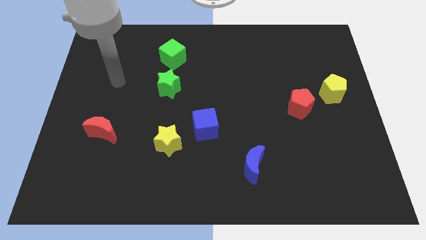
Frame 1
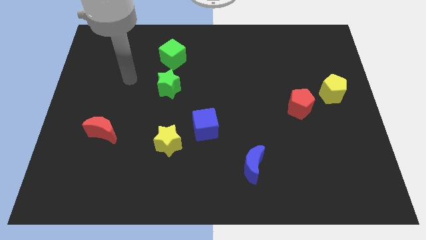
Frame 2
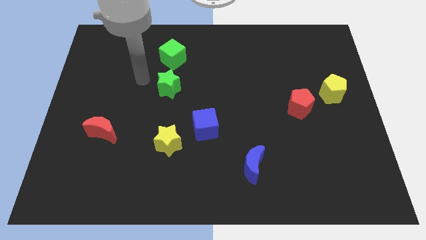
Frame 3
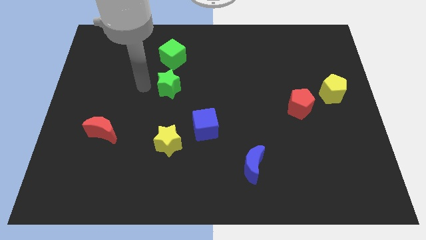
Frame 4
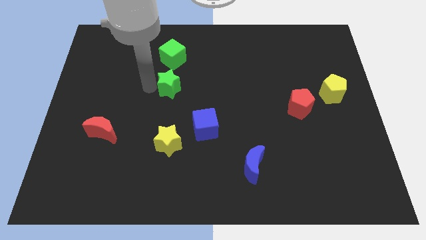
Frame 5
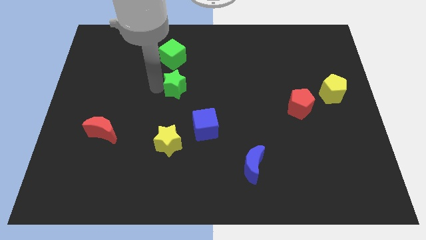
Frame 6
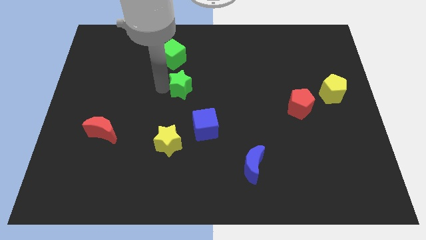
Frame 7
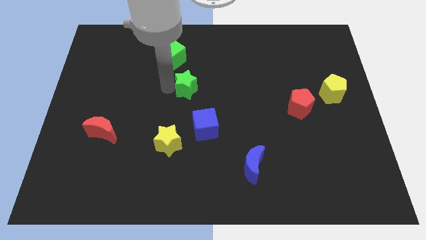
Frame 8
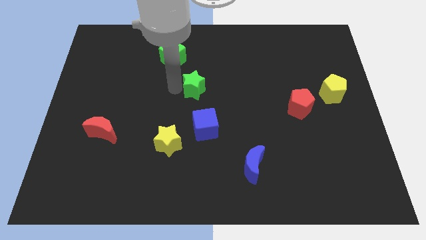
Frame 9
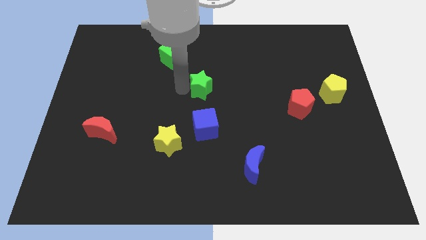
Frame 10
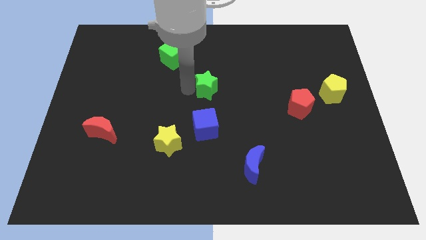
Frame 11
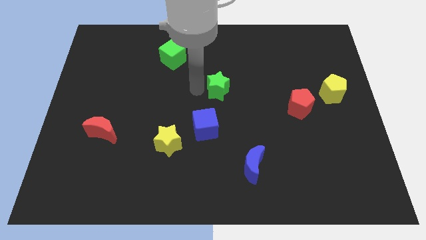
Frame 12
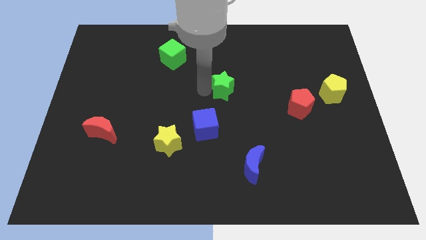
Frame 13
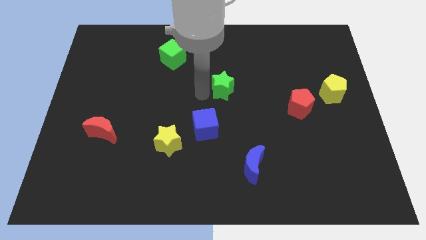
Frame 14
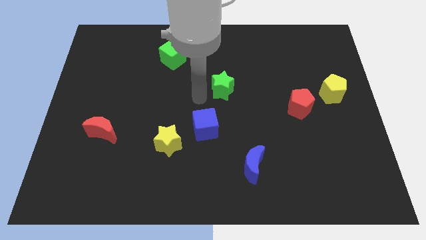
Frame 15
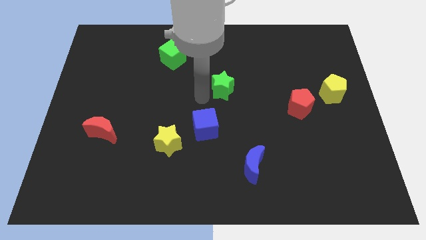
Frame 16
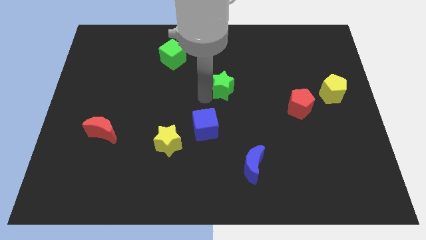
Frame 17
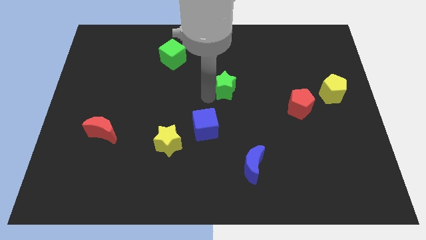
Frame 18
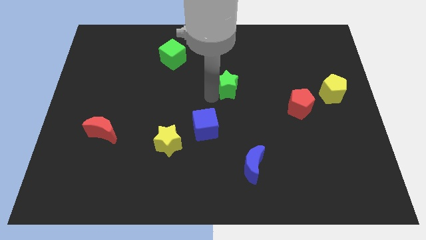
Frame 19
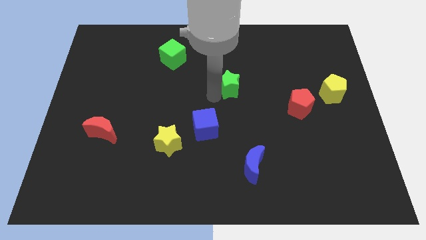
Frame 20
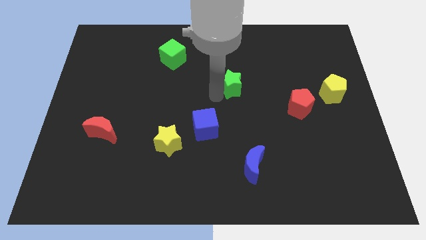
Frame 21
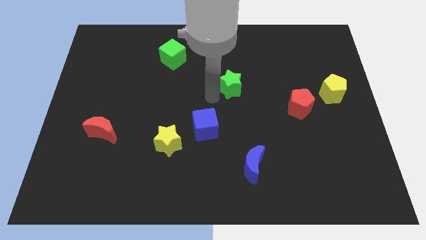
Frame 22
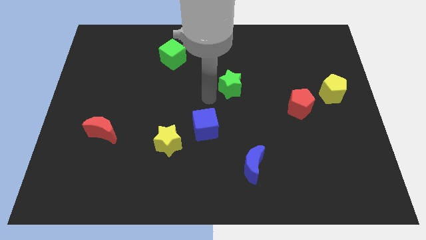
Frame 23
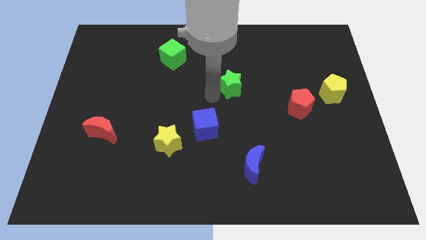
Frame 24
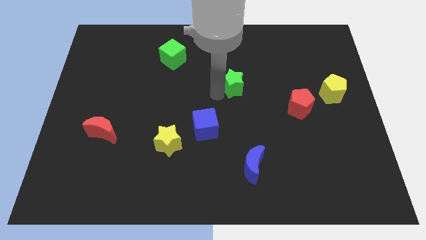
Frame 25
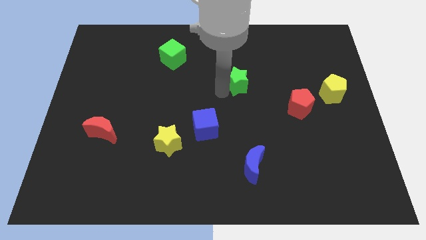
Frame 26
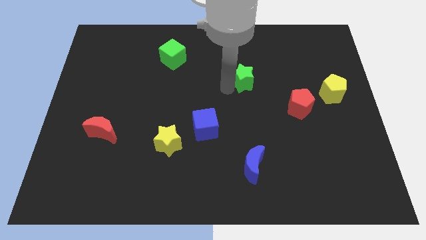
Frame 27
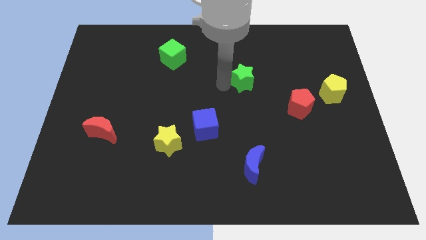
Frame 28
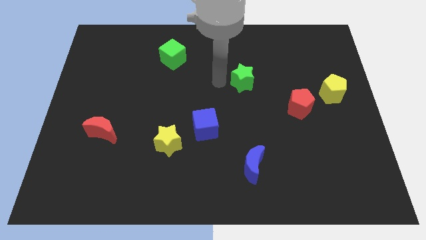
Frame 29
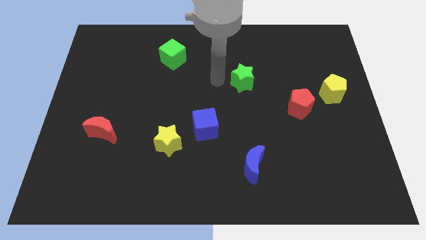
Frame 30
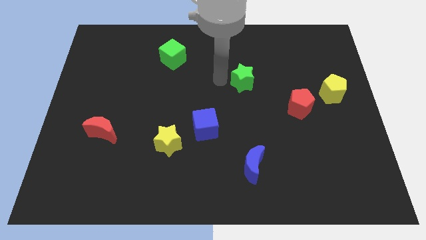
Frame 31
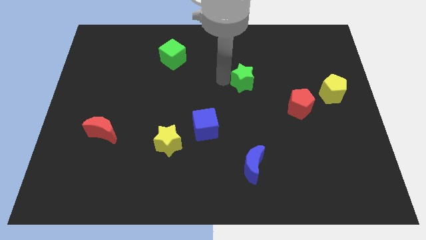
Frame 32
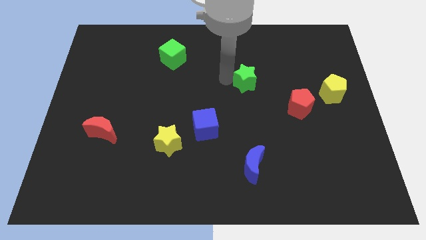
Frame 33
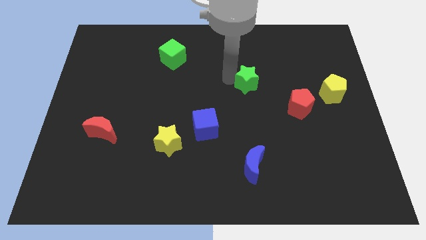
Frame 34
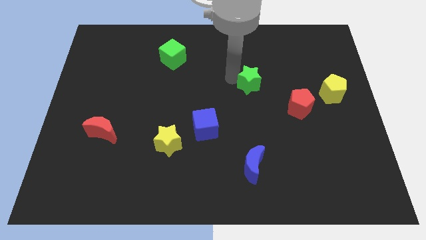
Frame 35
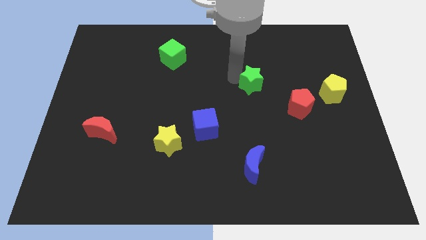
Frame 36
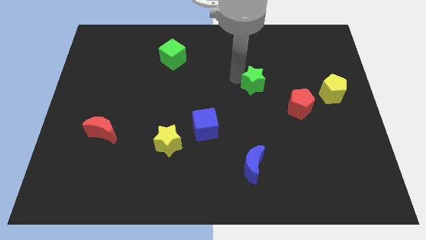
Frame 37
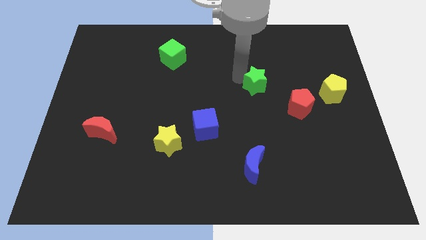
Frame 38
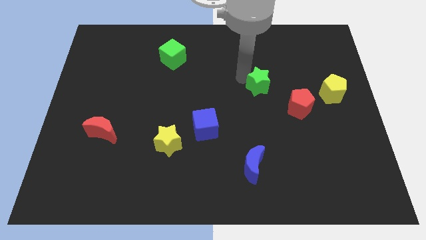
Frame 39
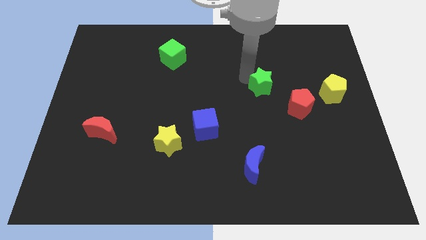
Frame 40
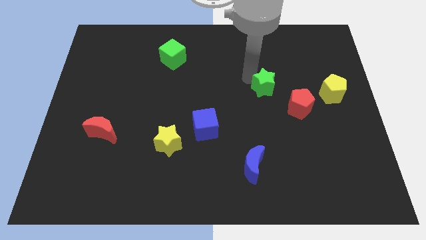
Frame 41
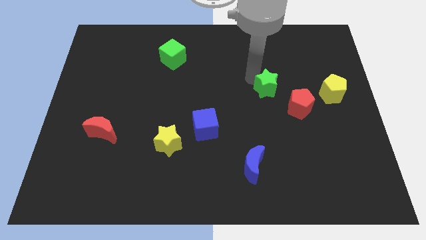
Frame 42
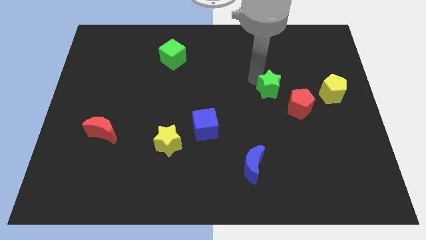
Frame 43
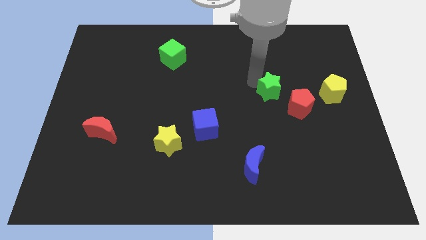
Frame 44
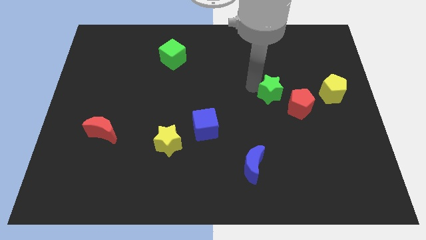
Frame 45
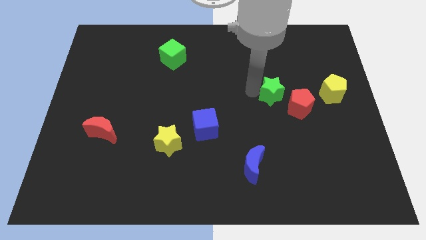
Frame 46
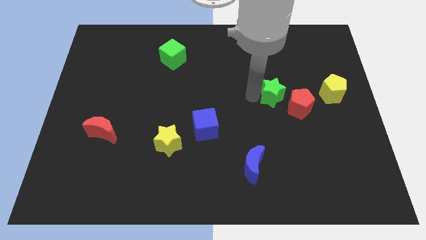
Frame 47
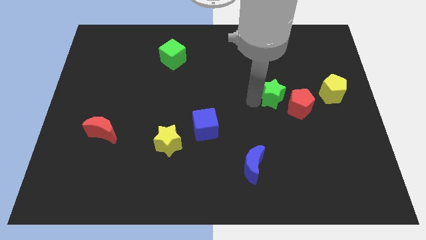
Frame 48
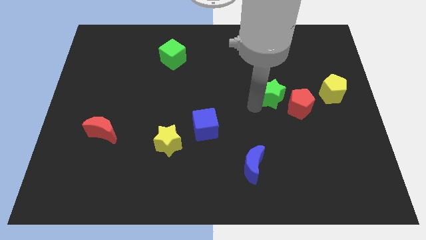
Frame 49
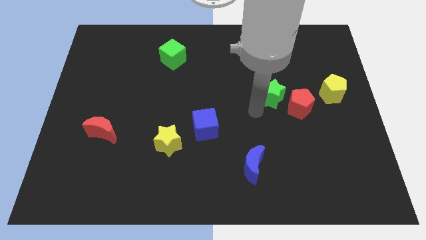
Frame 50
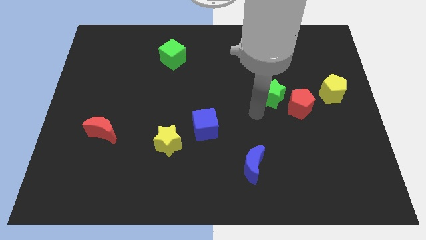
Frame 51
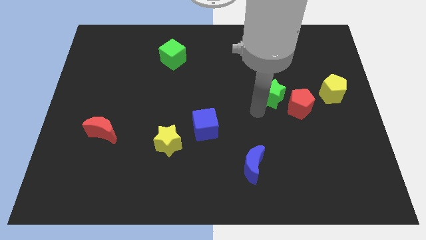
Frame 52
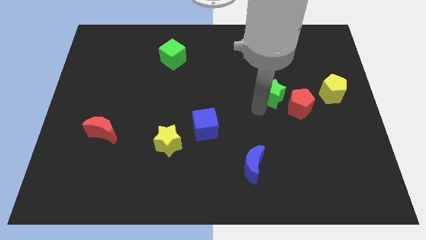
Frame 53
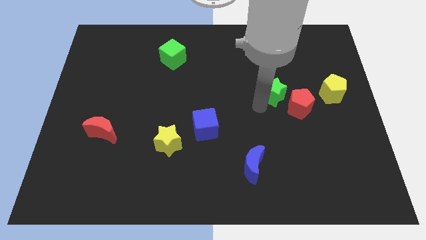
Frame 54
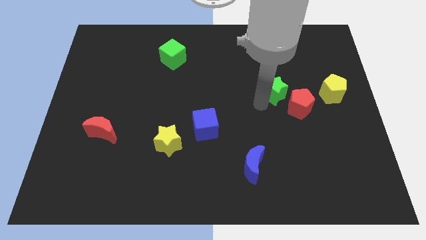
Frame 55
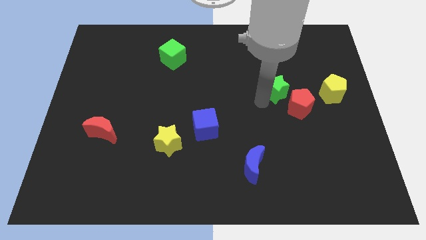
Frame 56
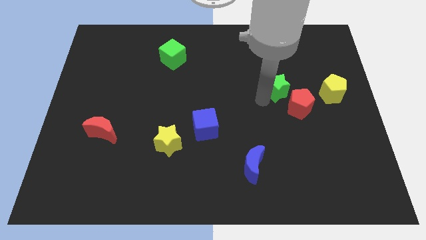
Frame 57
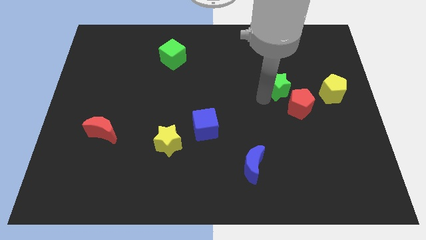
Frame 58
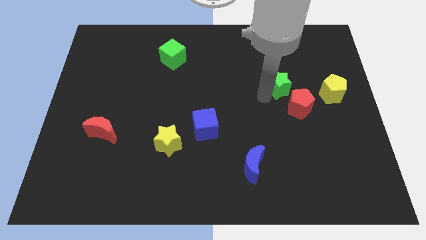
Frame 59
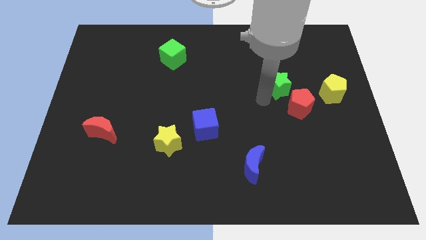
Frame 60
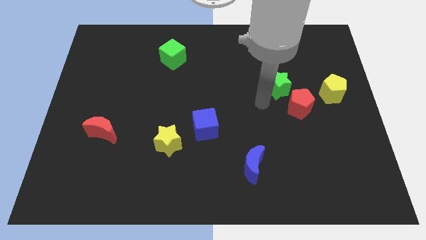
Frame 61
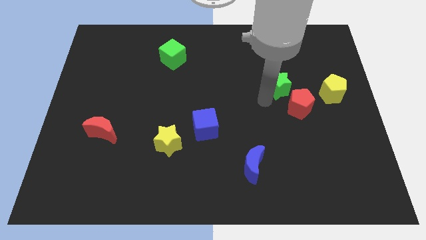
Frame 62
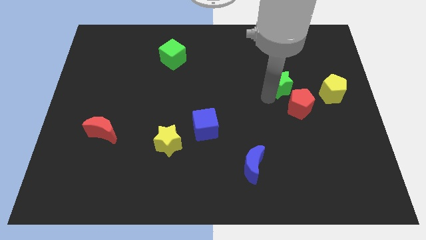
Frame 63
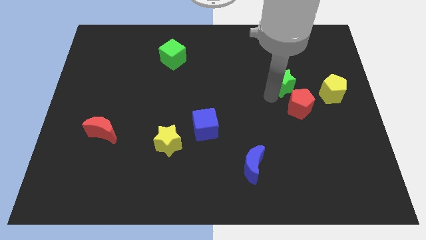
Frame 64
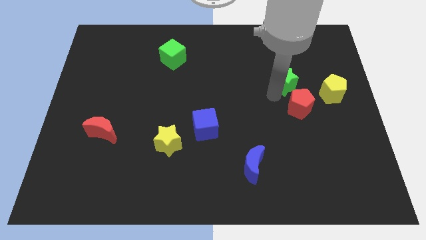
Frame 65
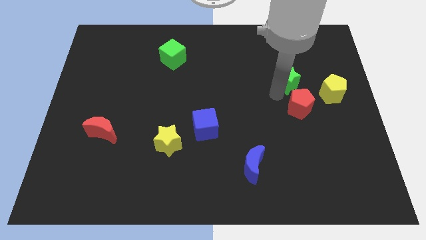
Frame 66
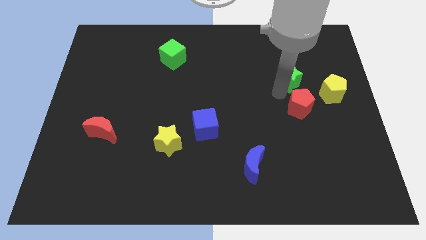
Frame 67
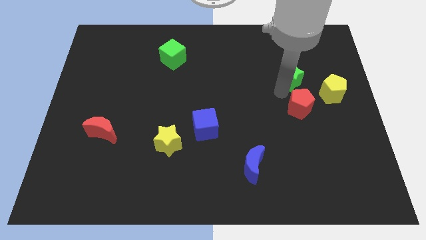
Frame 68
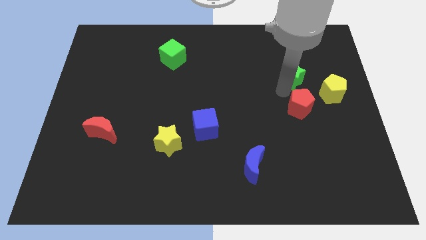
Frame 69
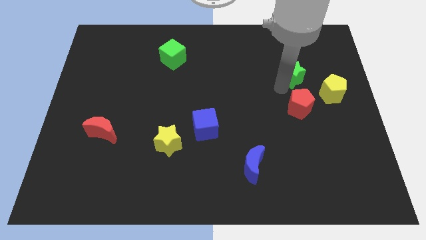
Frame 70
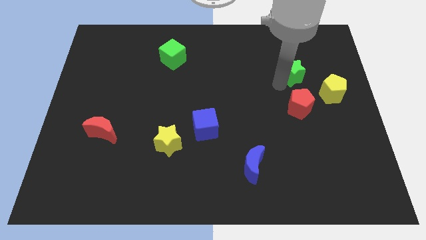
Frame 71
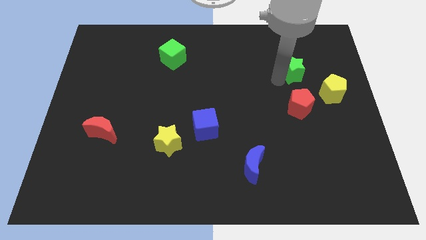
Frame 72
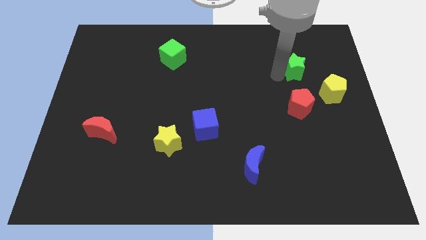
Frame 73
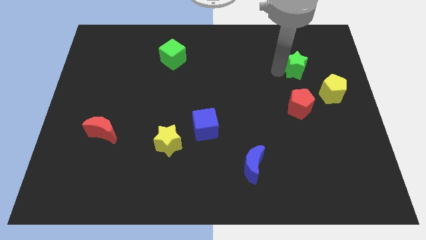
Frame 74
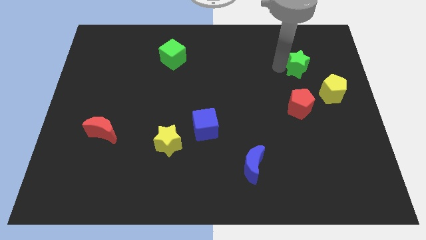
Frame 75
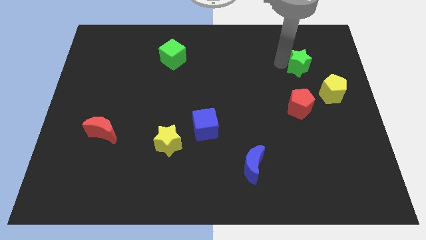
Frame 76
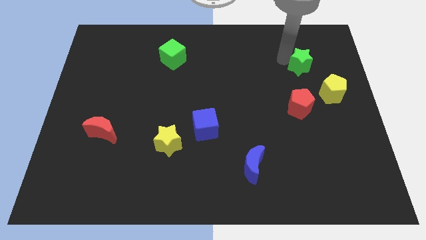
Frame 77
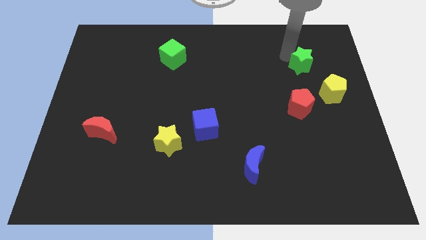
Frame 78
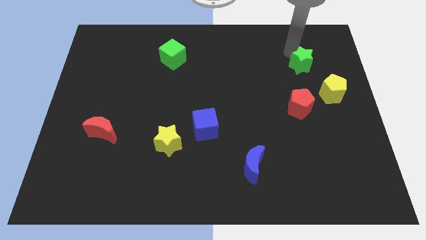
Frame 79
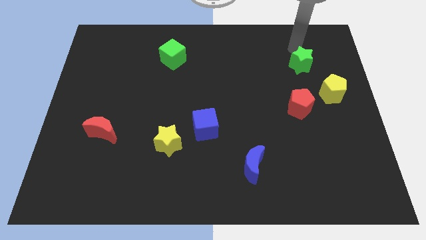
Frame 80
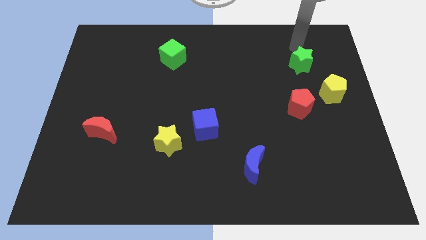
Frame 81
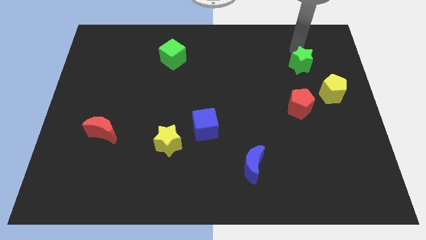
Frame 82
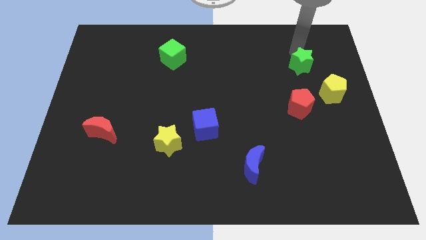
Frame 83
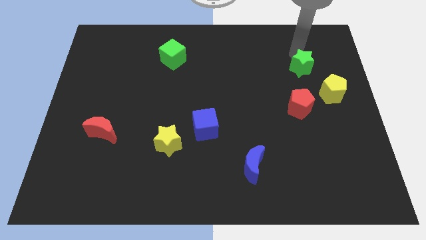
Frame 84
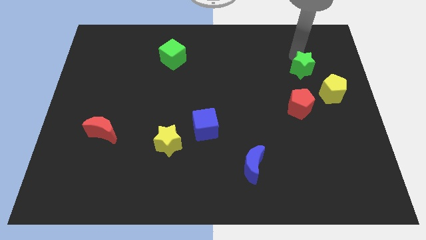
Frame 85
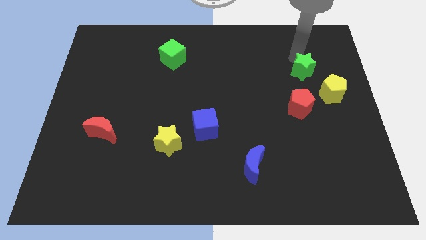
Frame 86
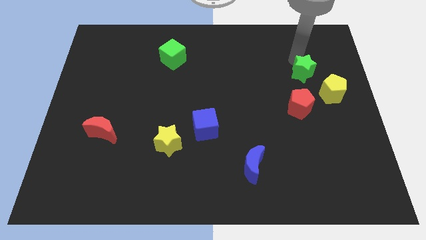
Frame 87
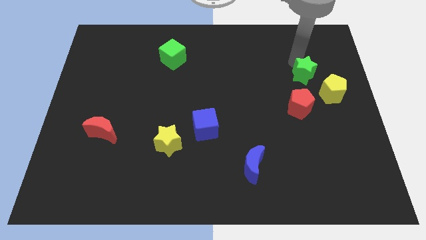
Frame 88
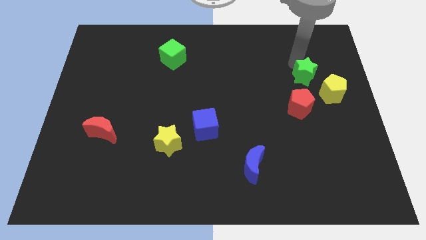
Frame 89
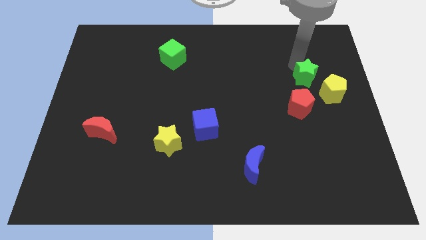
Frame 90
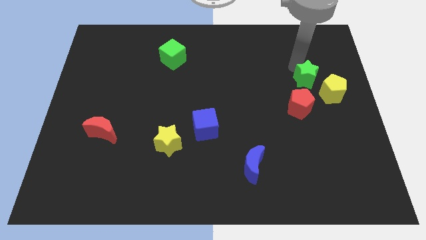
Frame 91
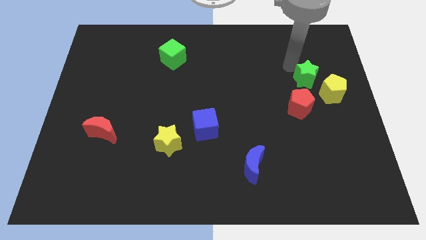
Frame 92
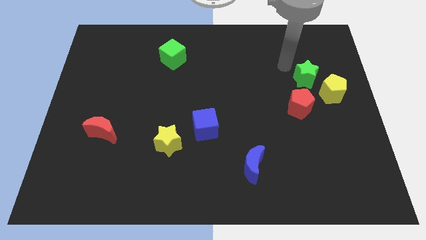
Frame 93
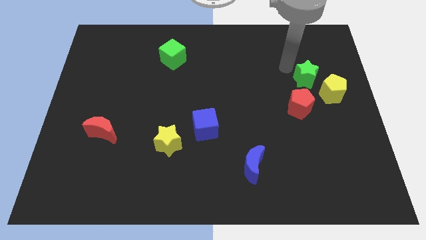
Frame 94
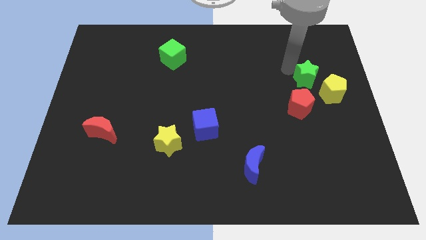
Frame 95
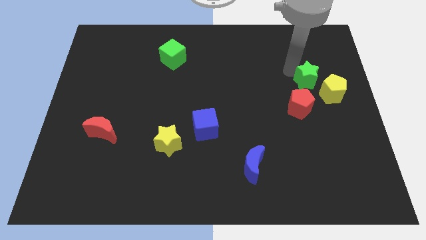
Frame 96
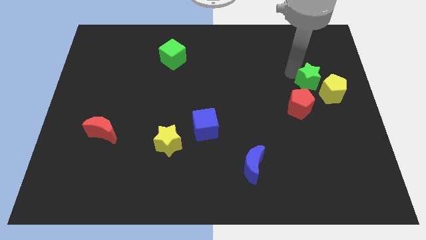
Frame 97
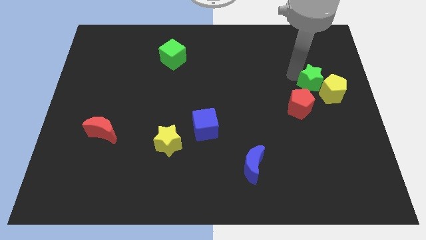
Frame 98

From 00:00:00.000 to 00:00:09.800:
push the green star towards the yellow pentagon
